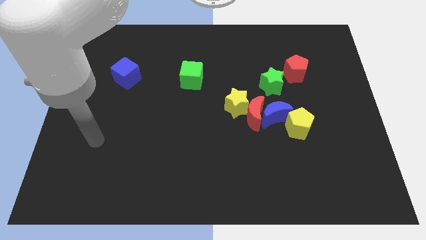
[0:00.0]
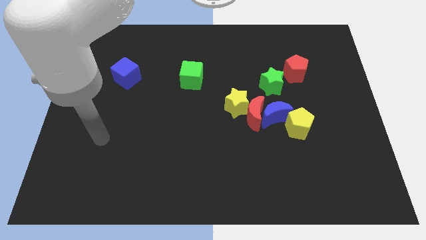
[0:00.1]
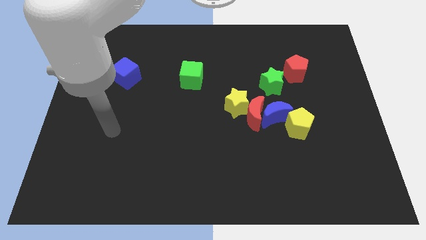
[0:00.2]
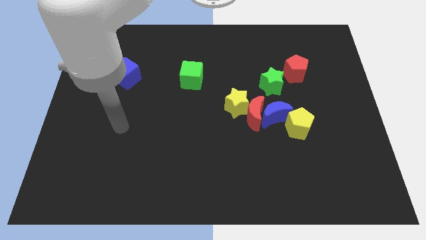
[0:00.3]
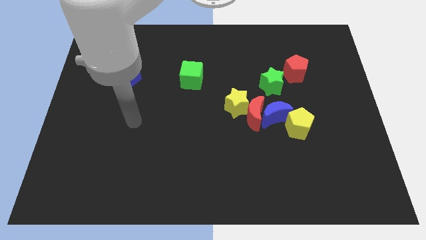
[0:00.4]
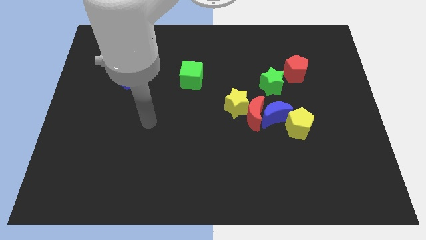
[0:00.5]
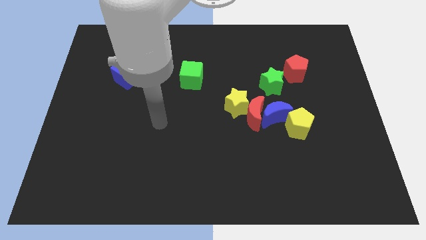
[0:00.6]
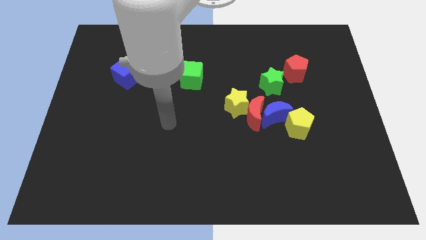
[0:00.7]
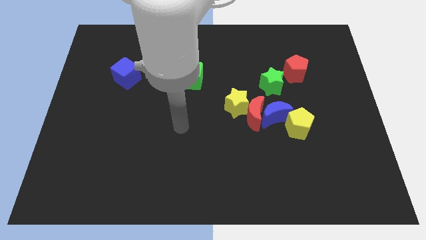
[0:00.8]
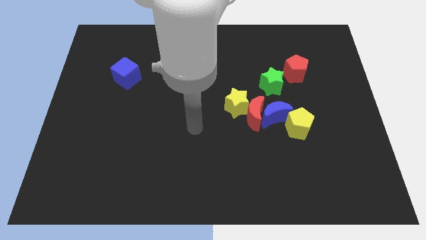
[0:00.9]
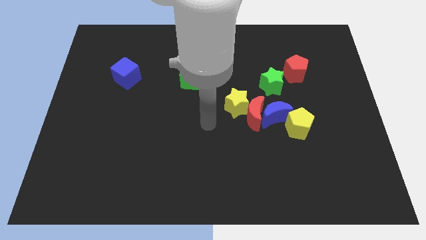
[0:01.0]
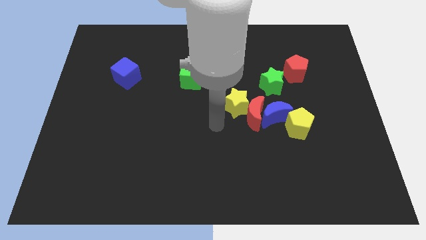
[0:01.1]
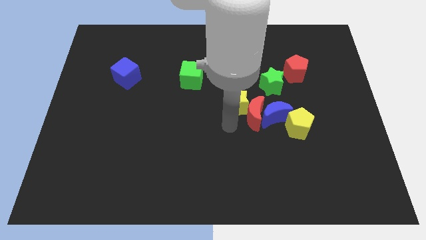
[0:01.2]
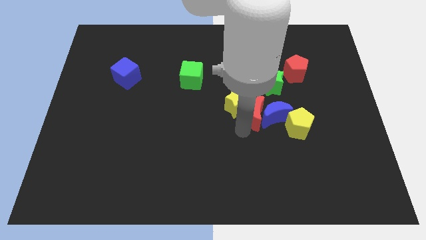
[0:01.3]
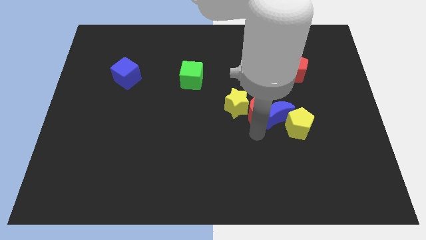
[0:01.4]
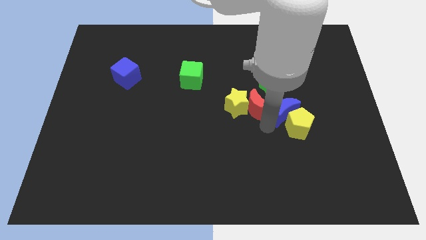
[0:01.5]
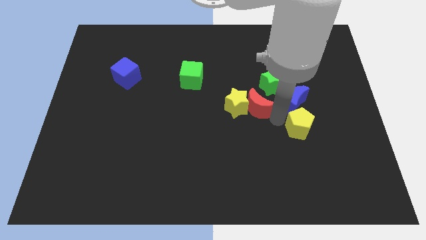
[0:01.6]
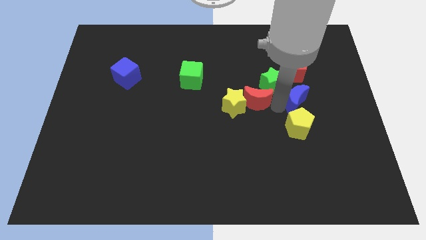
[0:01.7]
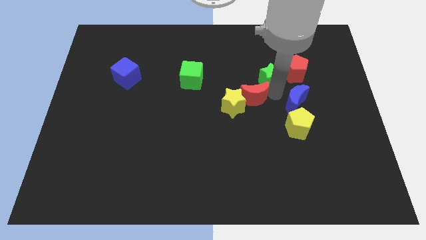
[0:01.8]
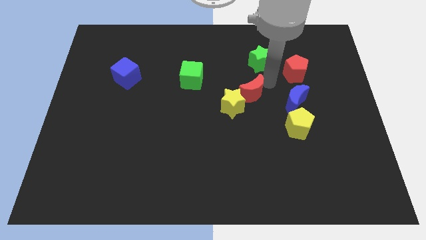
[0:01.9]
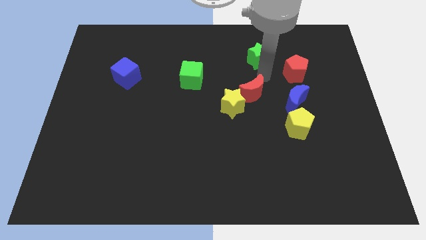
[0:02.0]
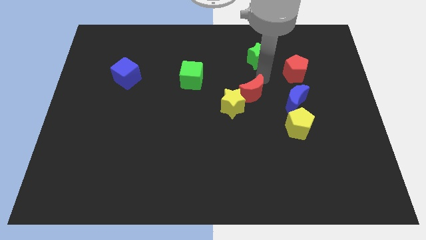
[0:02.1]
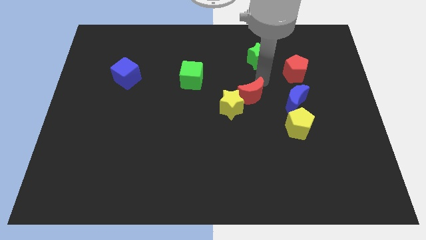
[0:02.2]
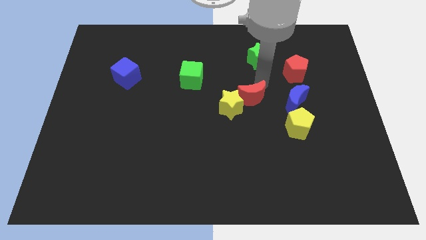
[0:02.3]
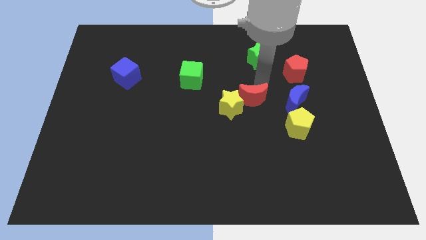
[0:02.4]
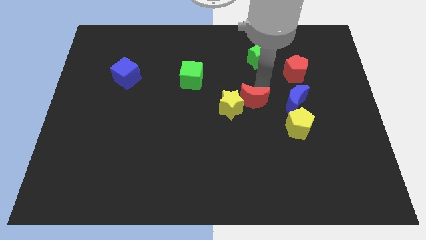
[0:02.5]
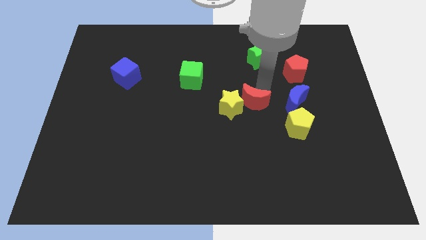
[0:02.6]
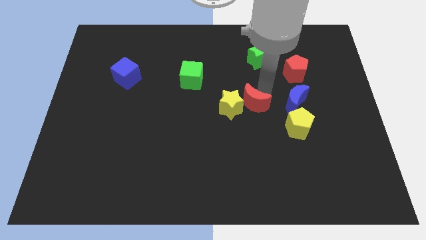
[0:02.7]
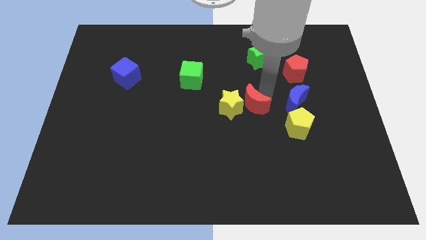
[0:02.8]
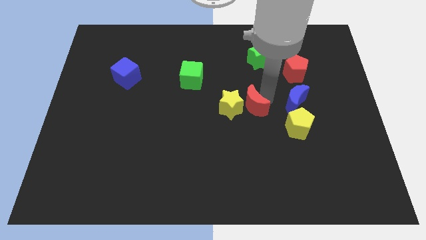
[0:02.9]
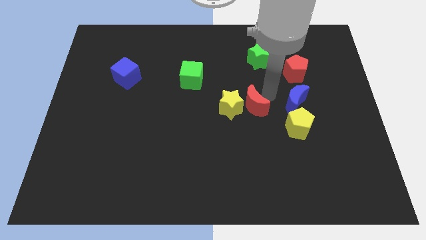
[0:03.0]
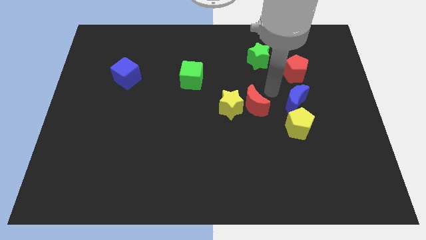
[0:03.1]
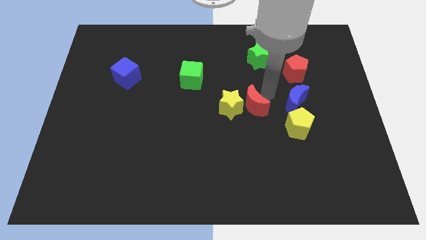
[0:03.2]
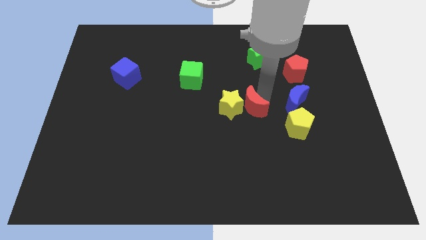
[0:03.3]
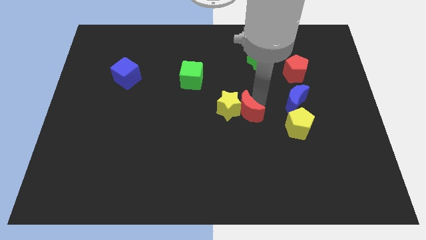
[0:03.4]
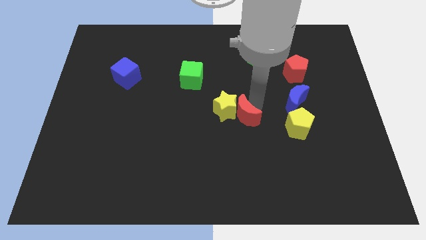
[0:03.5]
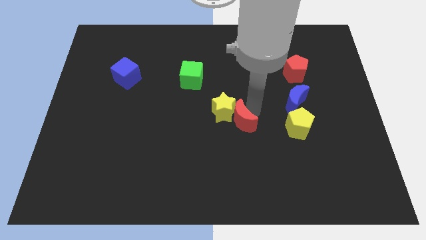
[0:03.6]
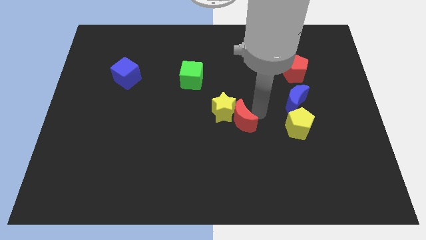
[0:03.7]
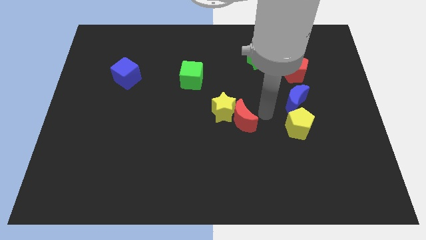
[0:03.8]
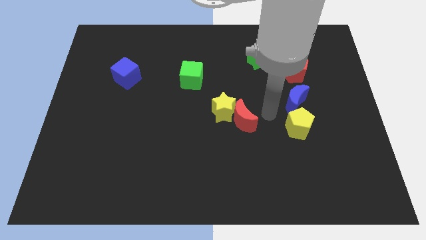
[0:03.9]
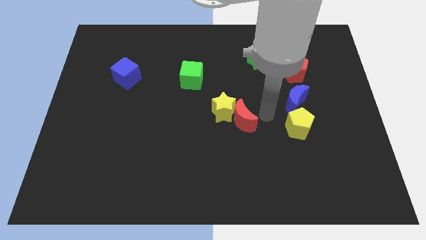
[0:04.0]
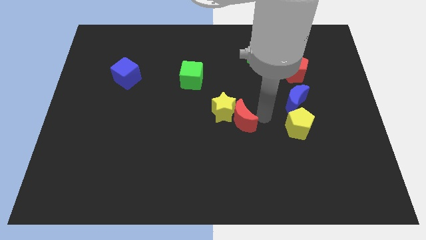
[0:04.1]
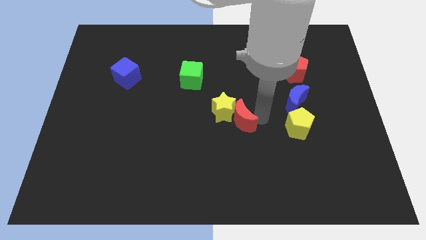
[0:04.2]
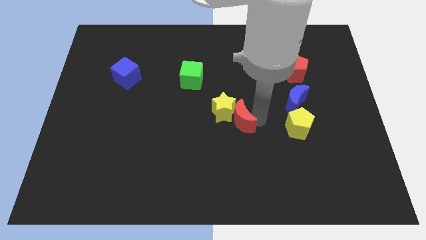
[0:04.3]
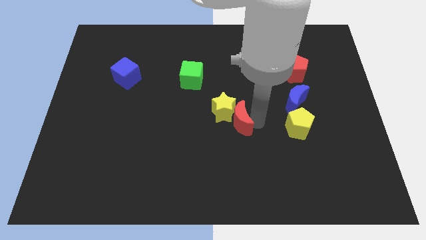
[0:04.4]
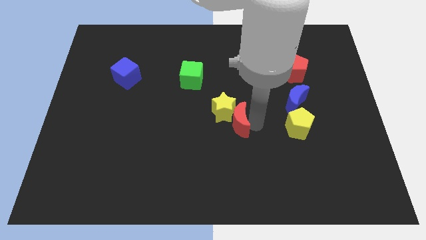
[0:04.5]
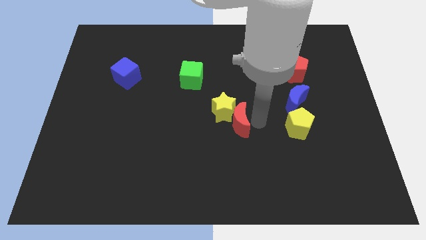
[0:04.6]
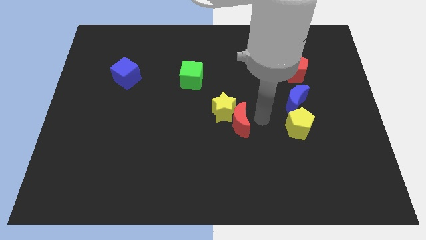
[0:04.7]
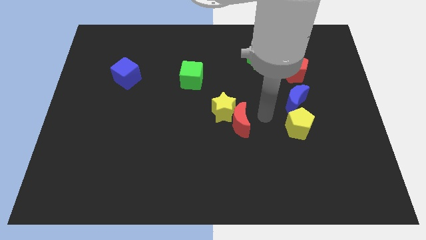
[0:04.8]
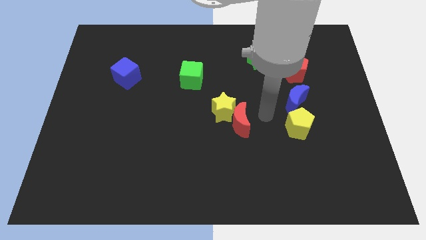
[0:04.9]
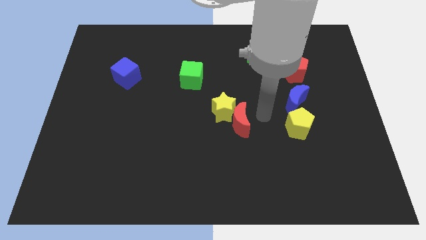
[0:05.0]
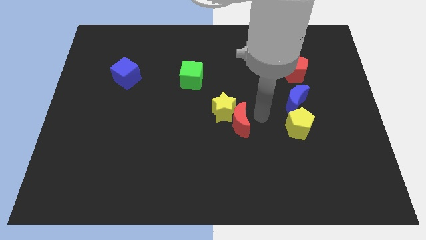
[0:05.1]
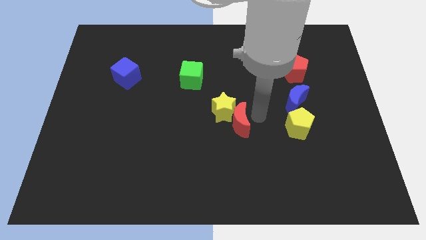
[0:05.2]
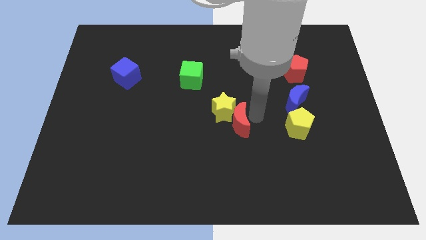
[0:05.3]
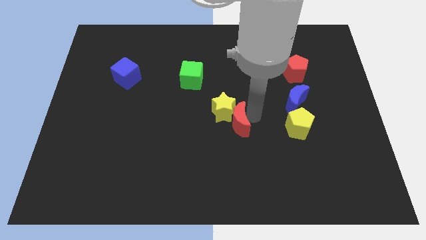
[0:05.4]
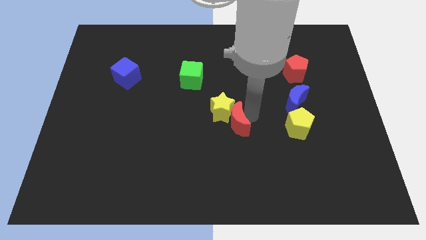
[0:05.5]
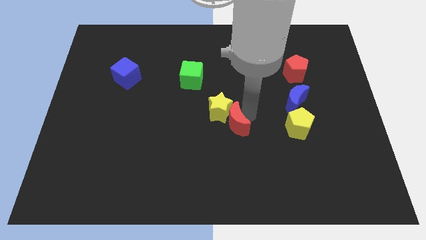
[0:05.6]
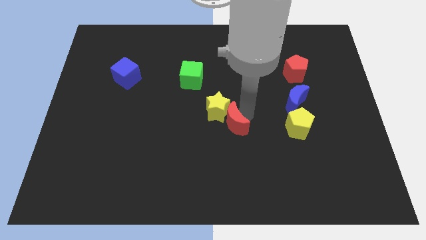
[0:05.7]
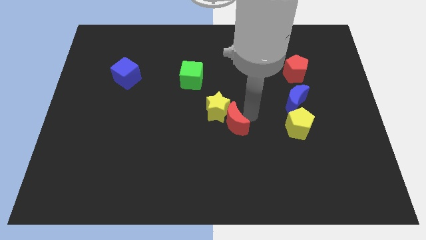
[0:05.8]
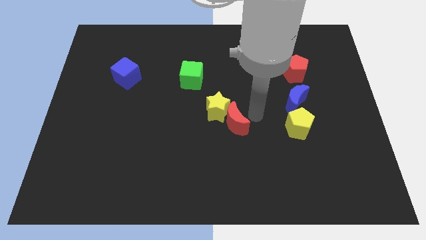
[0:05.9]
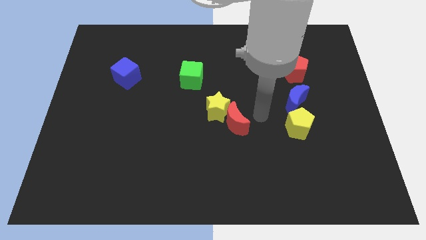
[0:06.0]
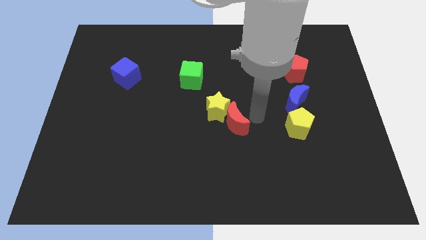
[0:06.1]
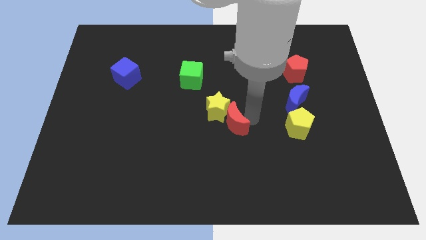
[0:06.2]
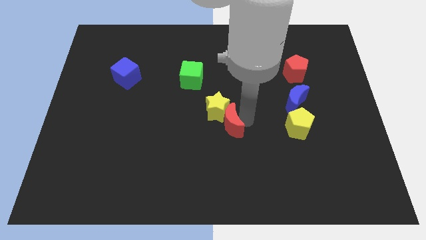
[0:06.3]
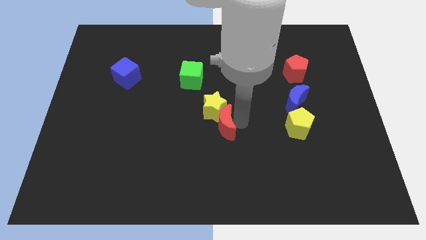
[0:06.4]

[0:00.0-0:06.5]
separate the red moon from the group

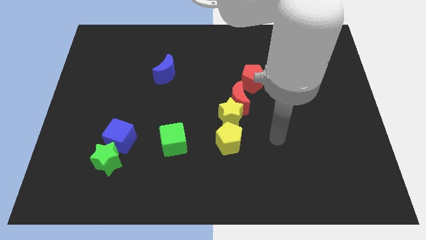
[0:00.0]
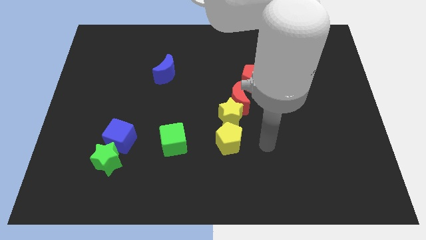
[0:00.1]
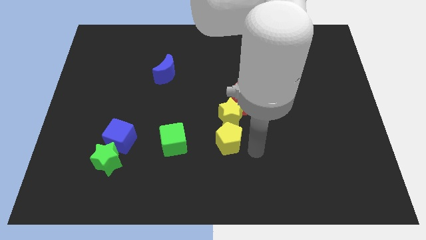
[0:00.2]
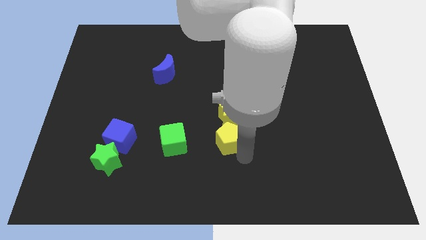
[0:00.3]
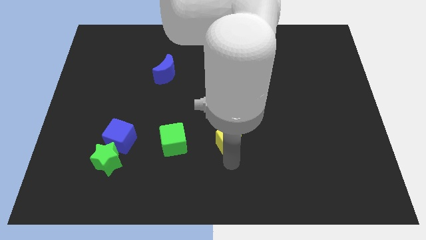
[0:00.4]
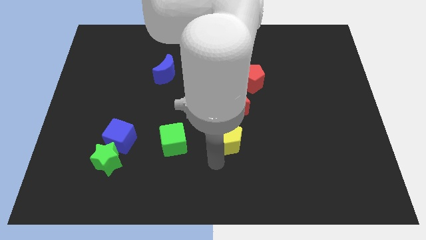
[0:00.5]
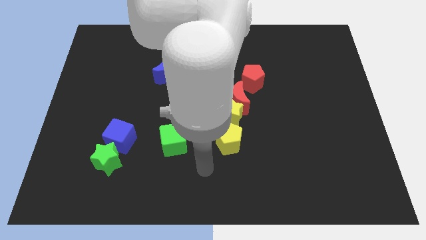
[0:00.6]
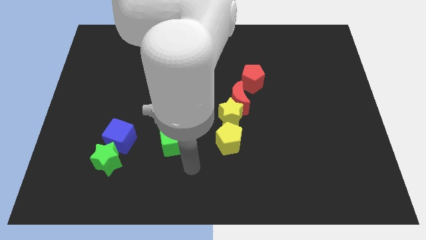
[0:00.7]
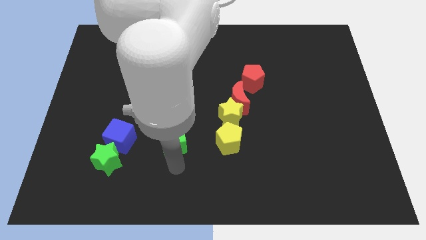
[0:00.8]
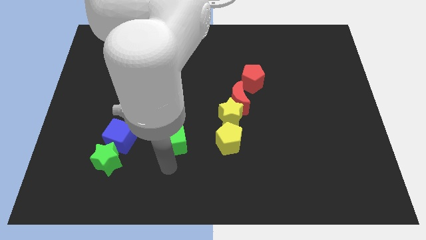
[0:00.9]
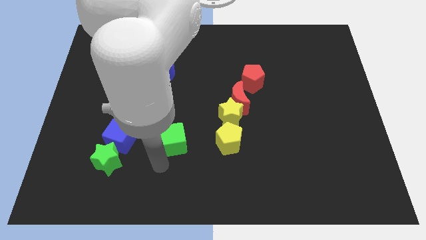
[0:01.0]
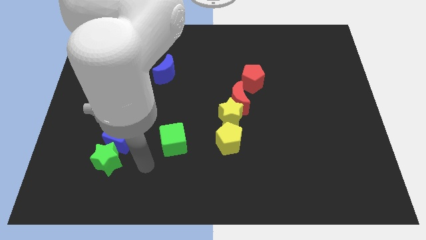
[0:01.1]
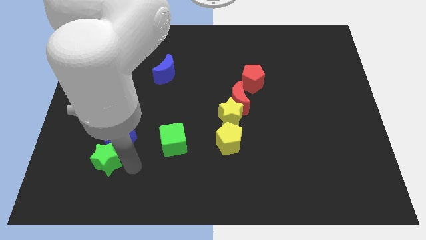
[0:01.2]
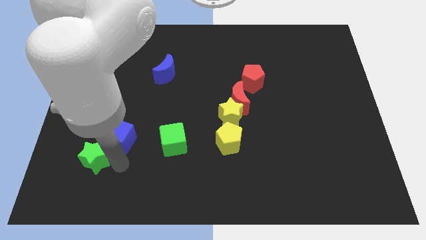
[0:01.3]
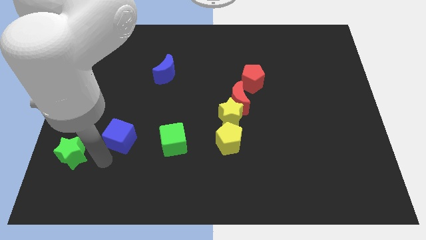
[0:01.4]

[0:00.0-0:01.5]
separate the blue cube from the green star

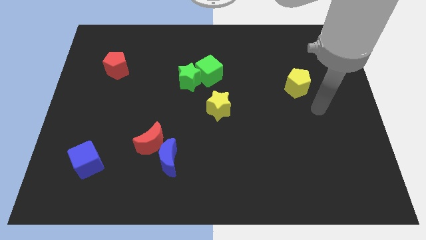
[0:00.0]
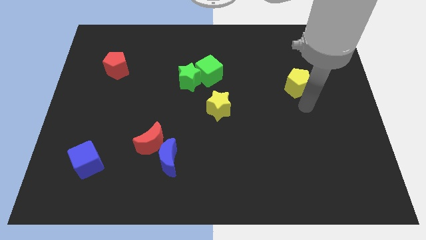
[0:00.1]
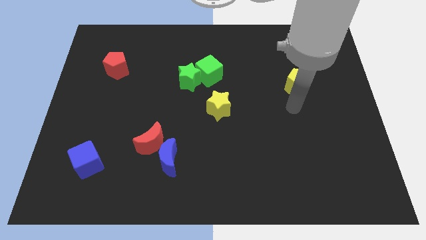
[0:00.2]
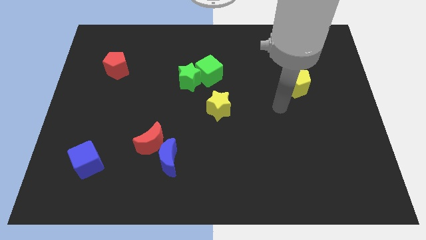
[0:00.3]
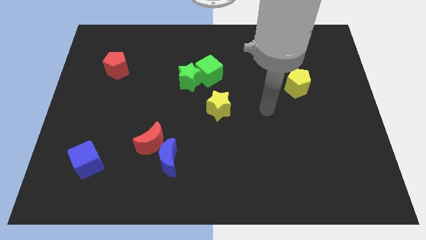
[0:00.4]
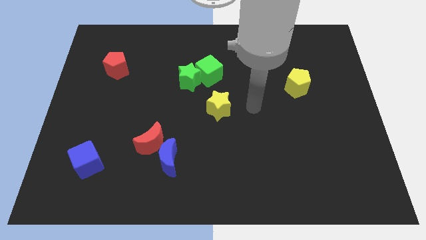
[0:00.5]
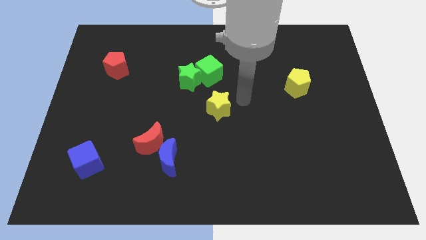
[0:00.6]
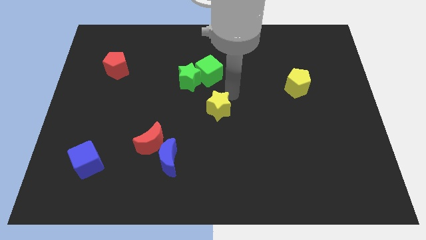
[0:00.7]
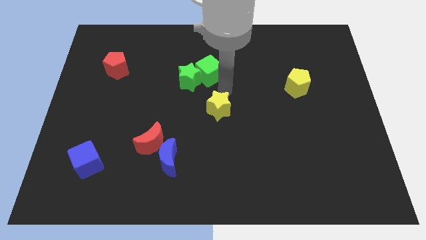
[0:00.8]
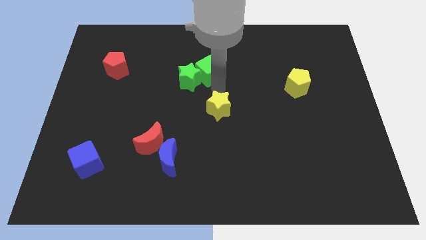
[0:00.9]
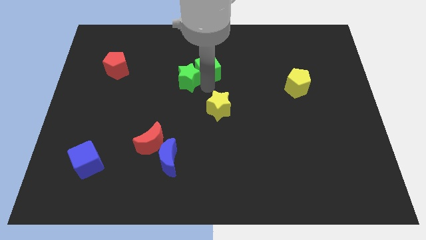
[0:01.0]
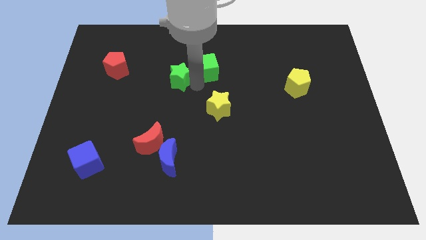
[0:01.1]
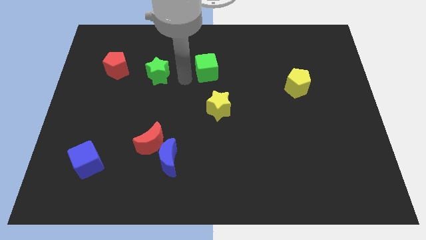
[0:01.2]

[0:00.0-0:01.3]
move the green cube away from the green star
